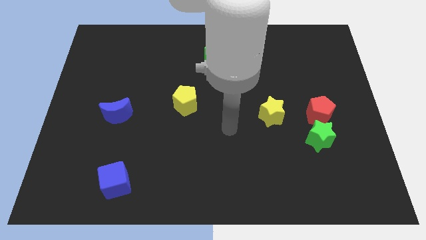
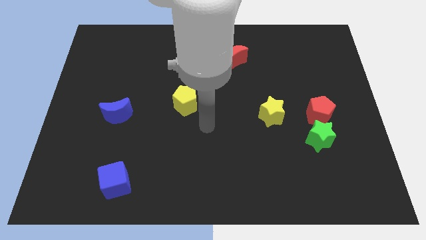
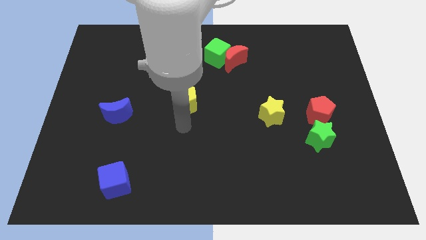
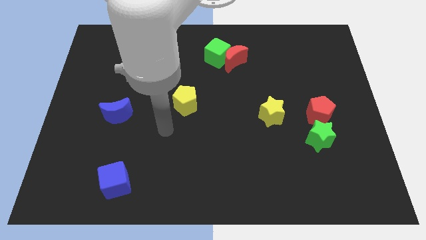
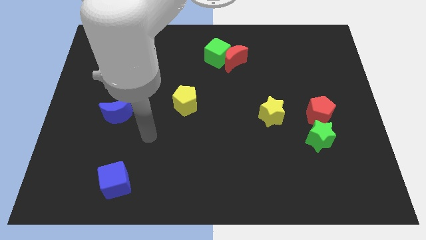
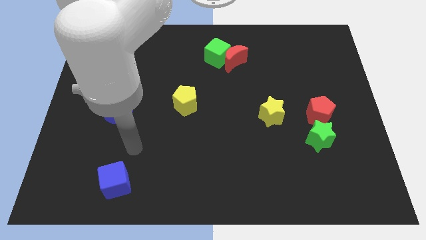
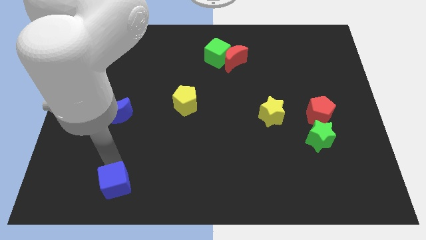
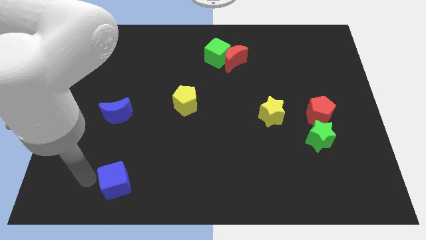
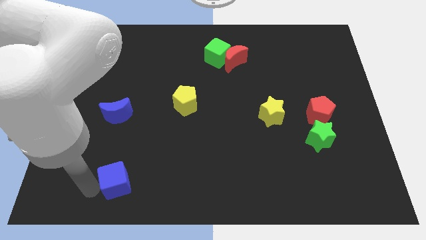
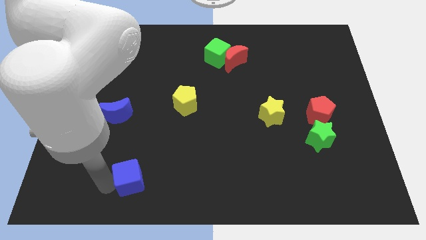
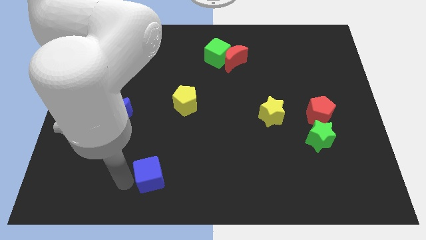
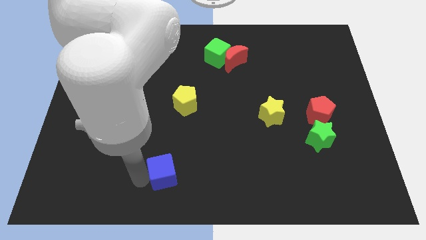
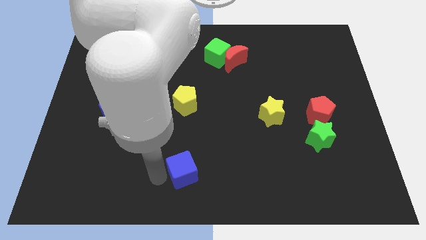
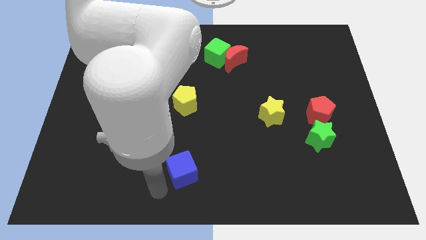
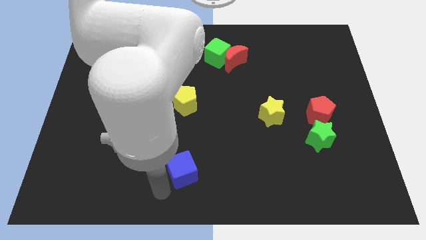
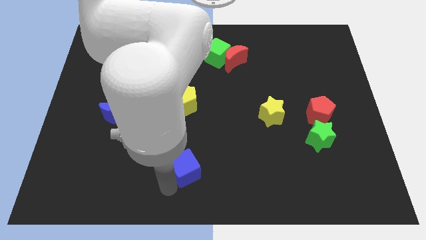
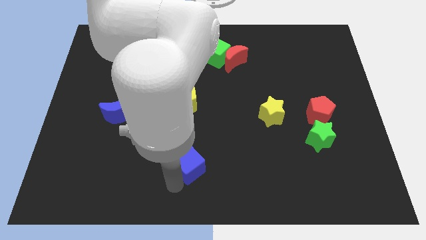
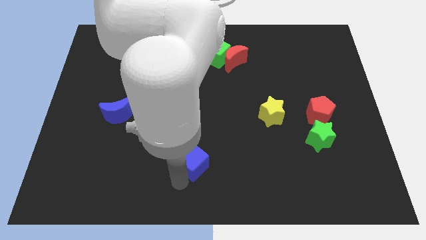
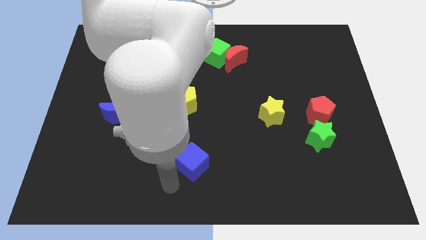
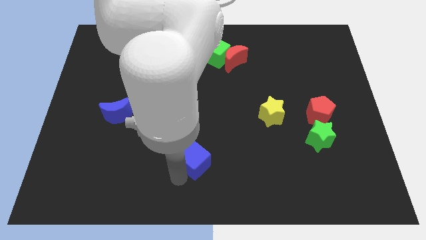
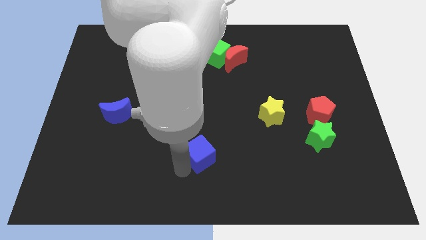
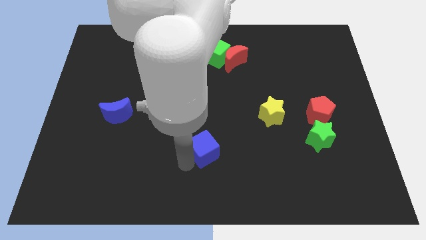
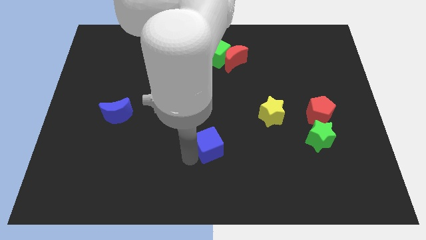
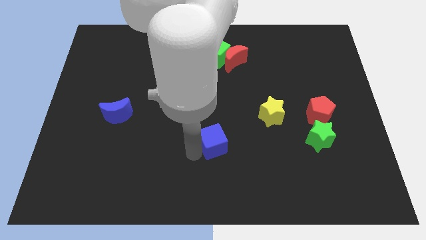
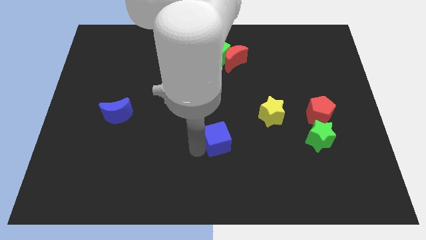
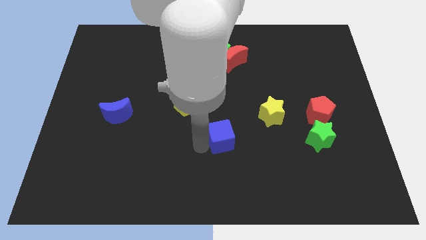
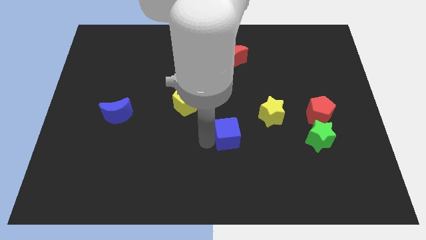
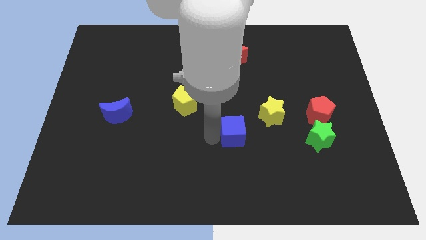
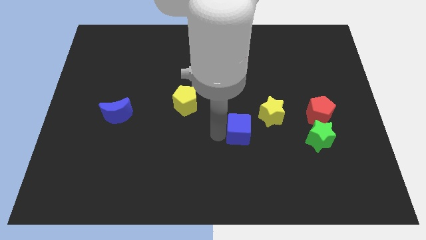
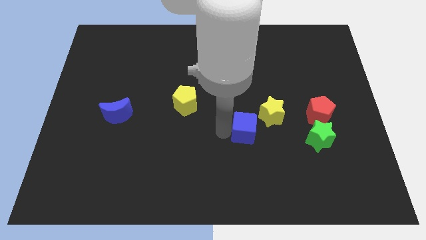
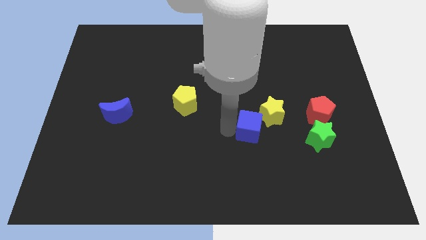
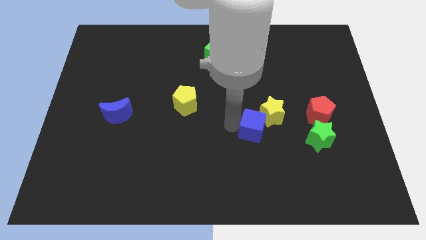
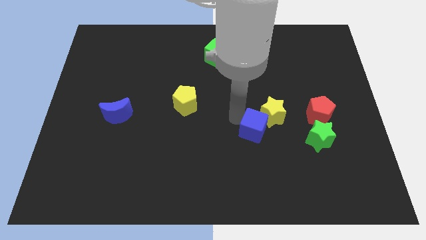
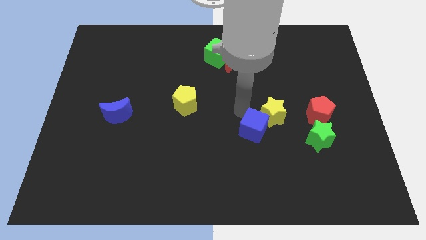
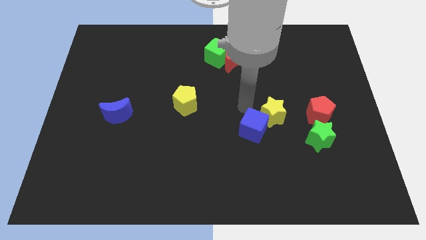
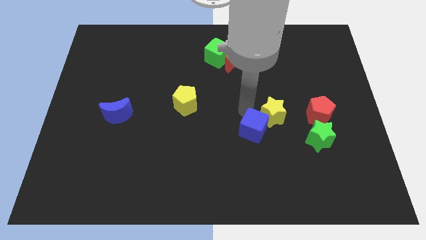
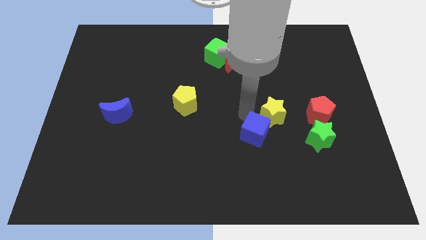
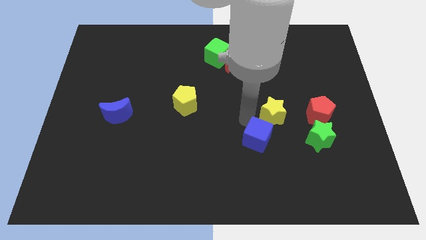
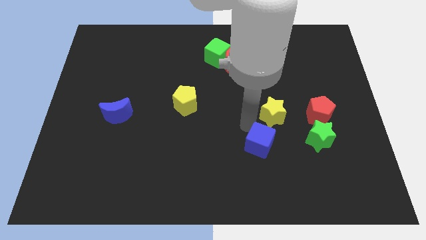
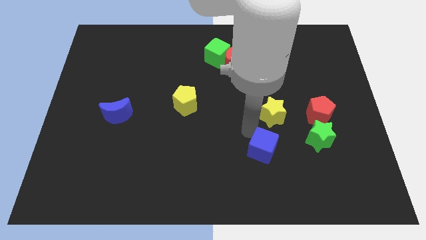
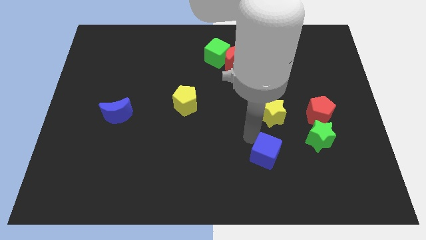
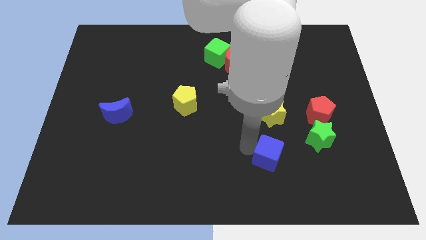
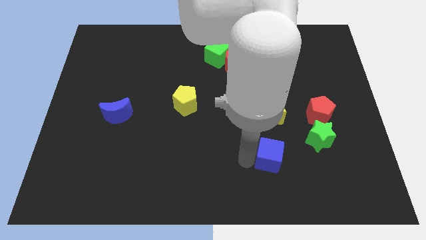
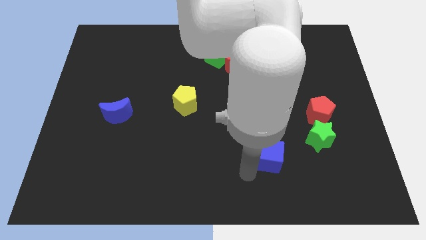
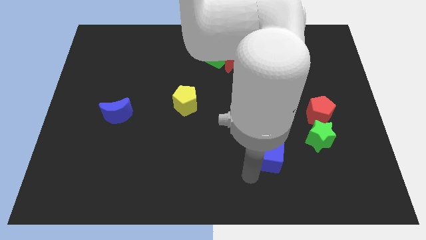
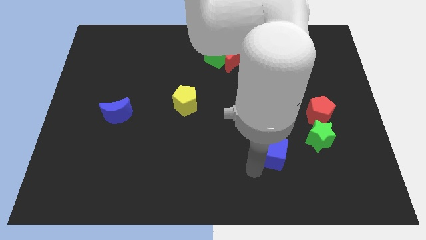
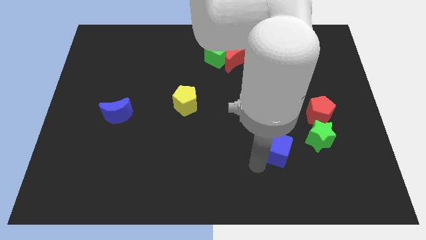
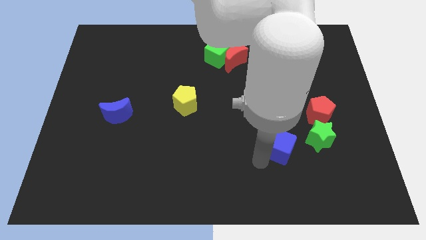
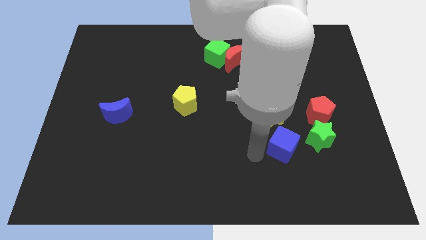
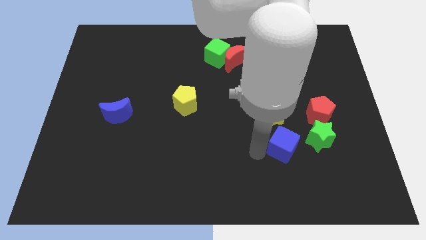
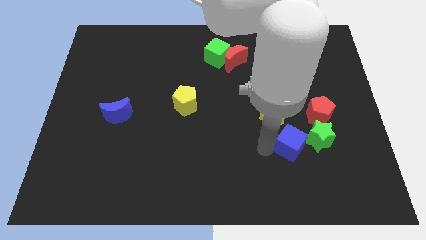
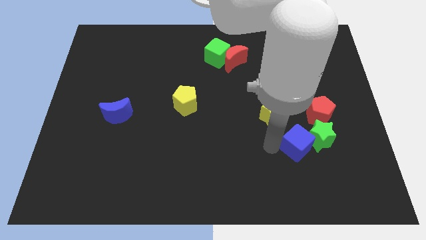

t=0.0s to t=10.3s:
put the blue cube towards the green star

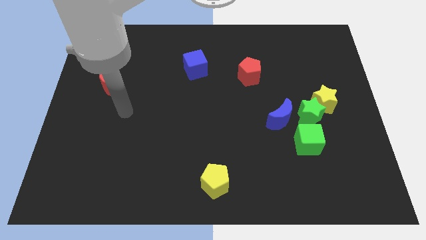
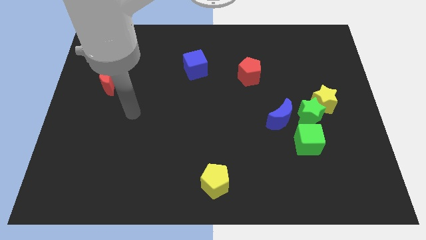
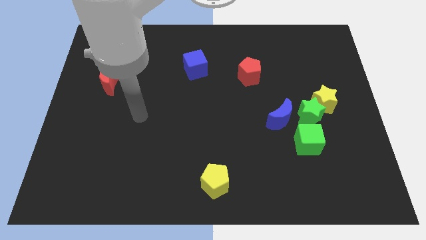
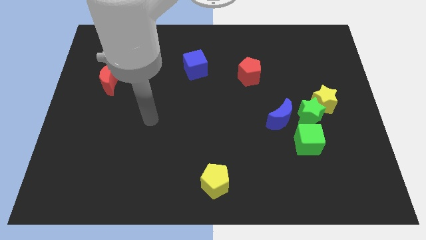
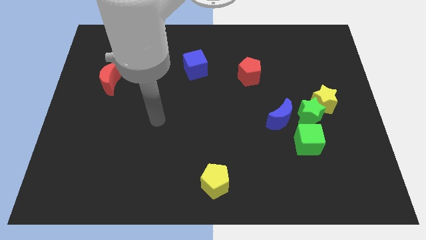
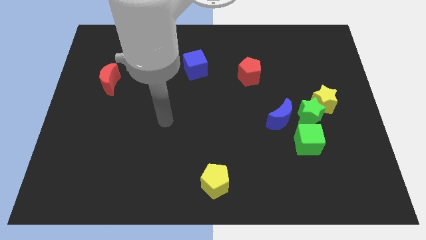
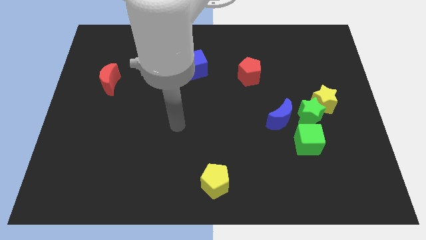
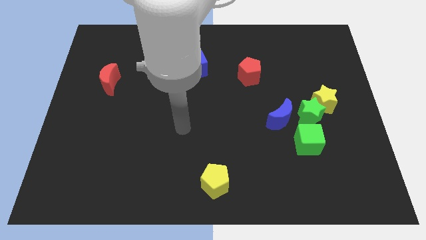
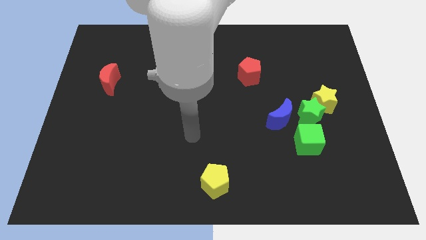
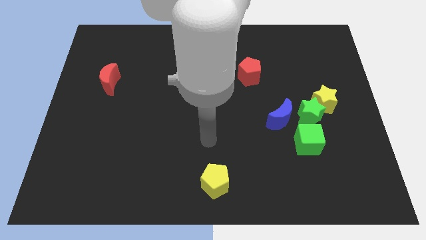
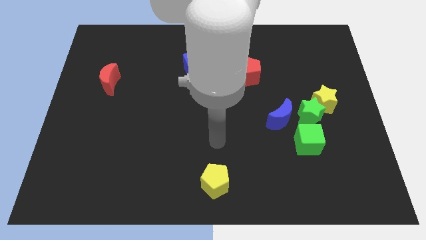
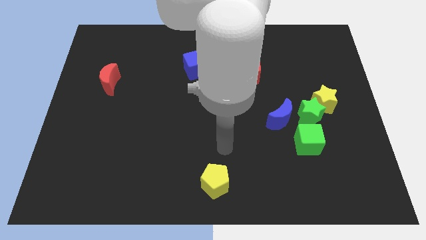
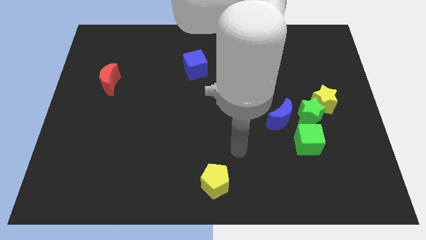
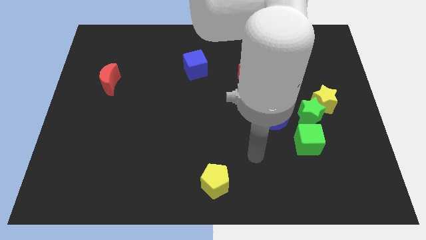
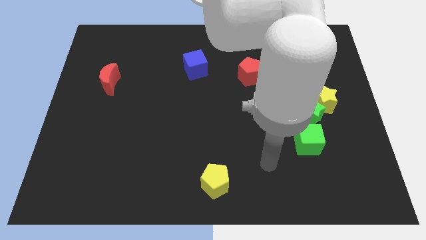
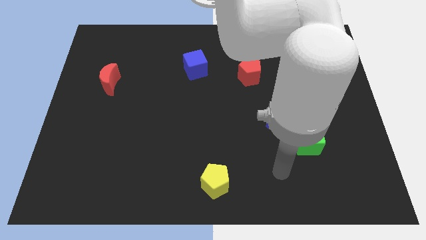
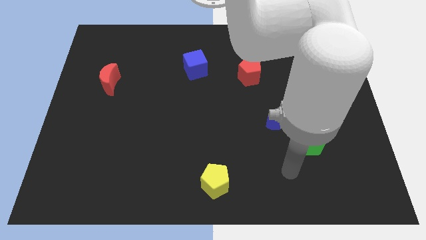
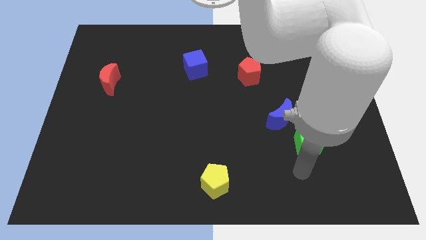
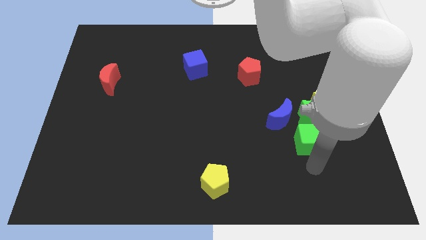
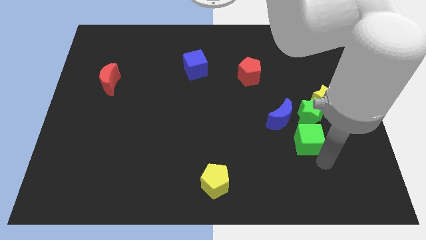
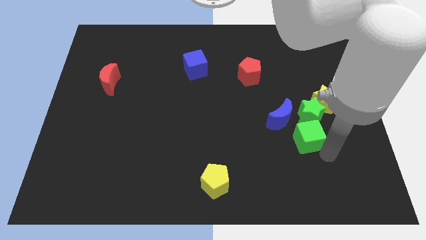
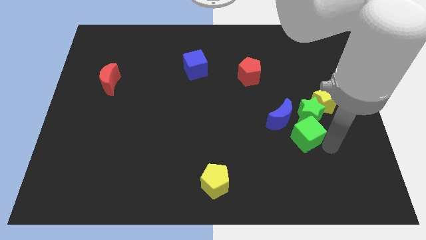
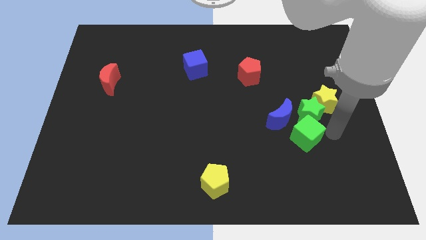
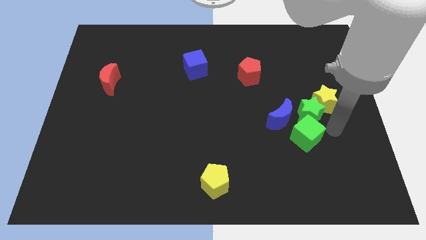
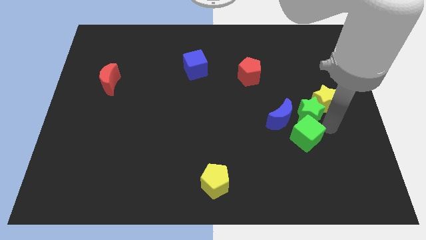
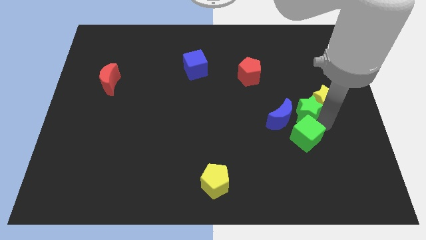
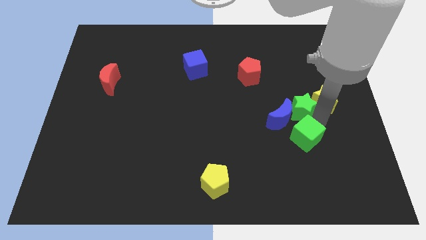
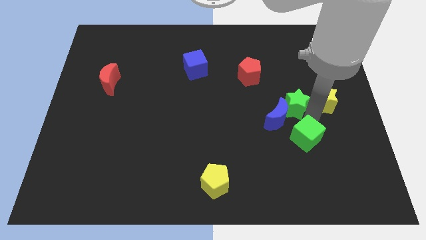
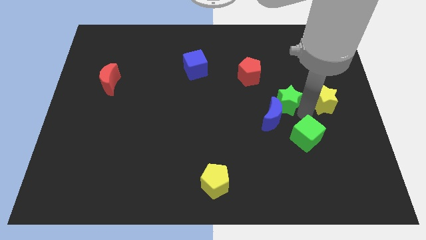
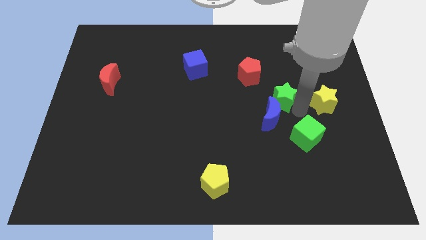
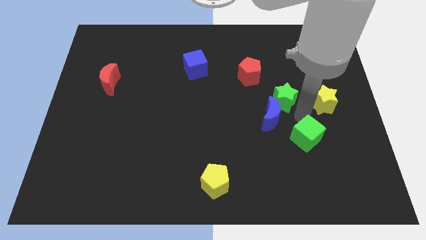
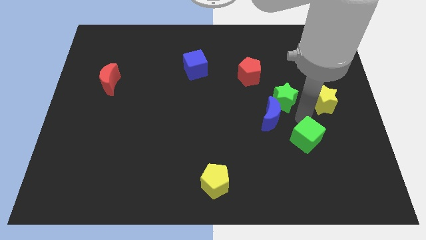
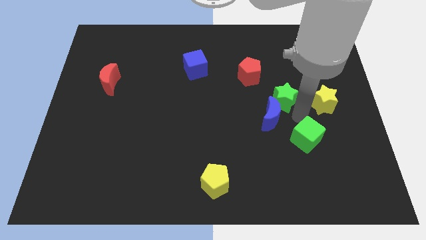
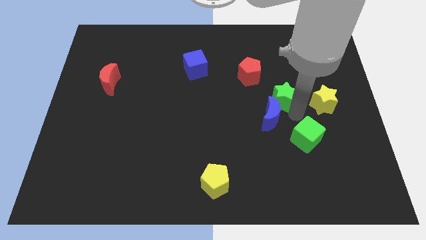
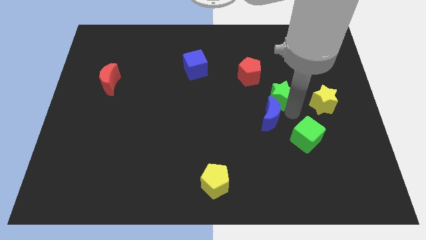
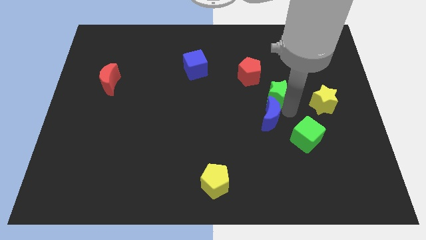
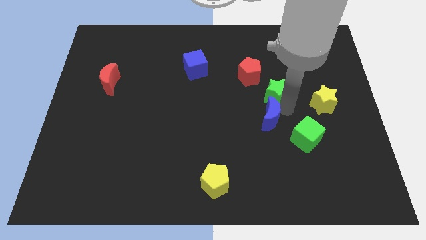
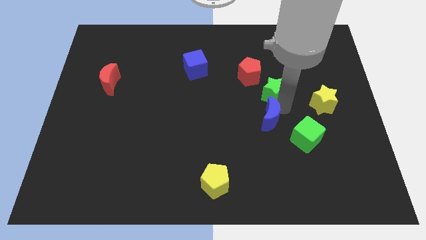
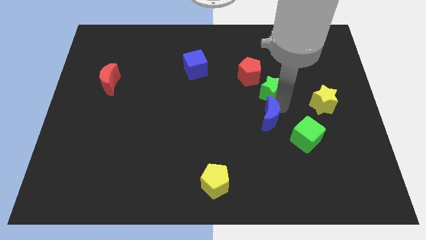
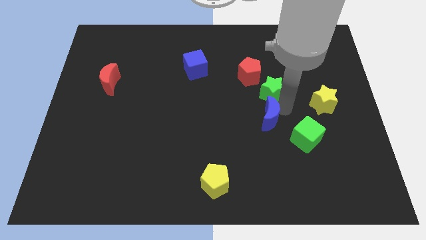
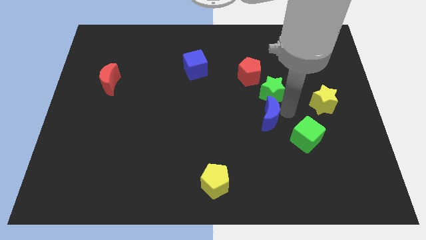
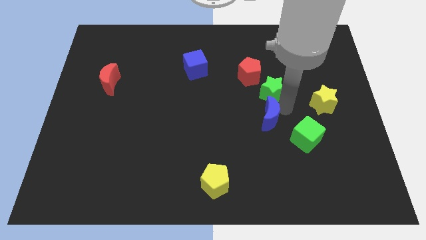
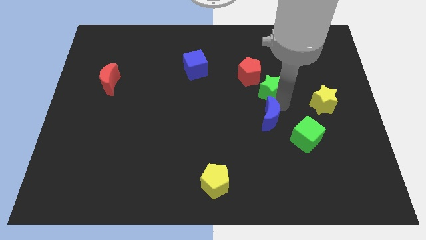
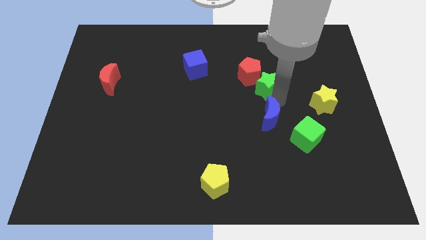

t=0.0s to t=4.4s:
slide the green star towards the red pentagon
